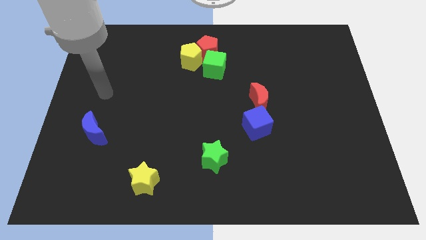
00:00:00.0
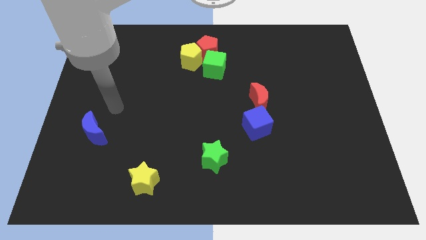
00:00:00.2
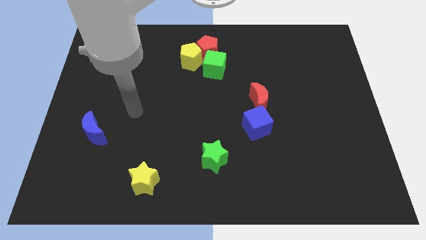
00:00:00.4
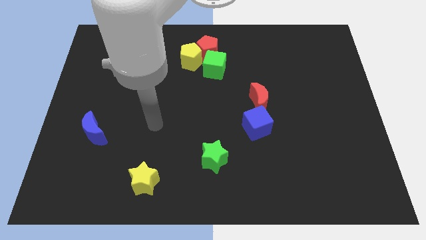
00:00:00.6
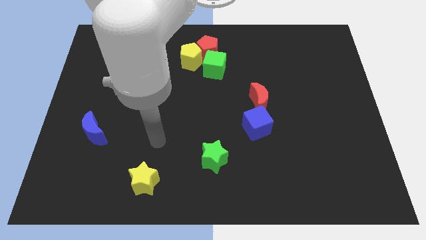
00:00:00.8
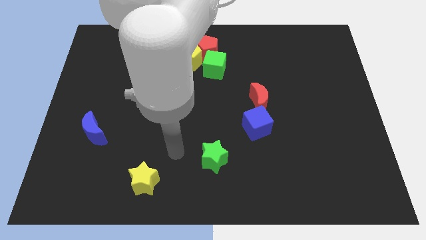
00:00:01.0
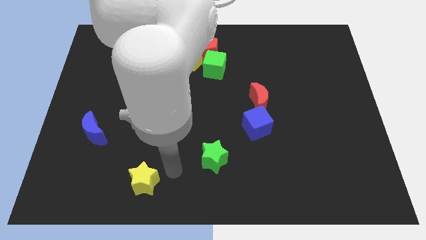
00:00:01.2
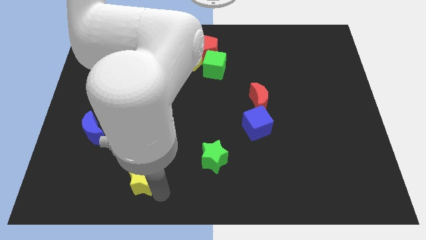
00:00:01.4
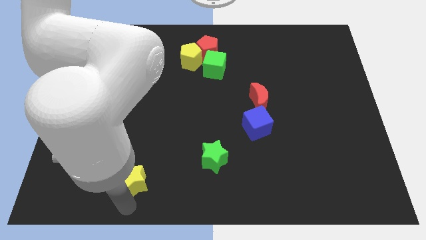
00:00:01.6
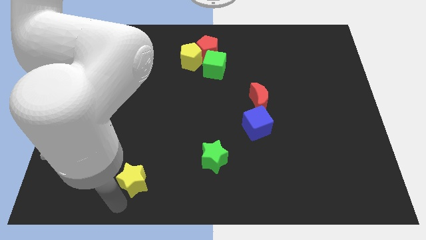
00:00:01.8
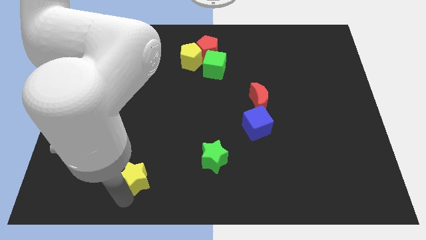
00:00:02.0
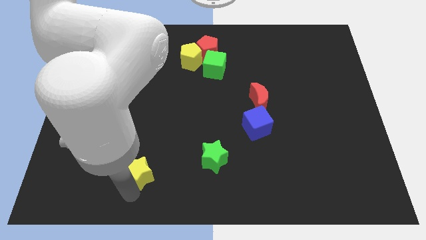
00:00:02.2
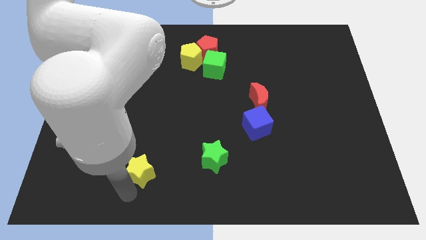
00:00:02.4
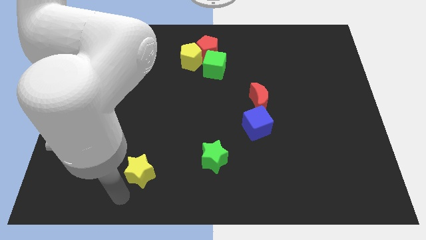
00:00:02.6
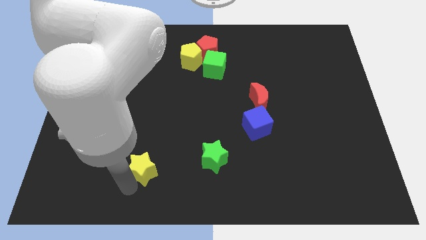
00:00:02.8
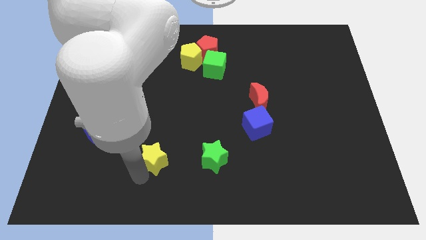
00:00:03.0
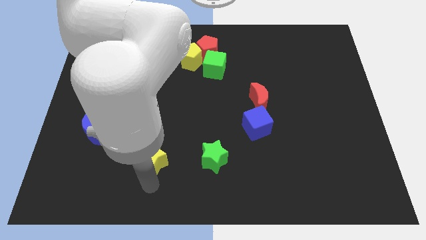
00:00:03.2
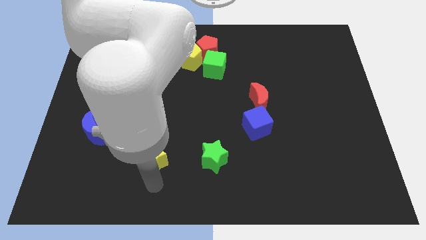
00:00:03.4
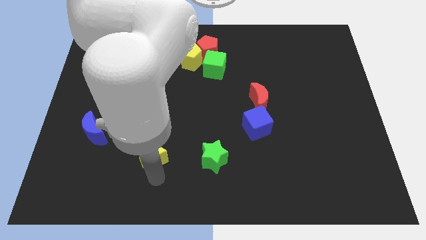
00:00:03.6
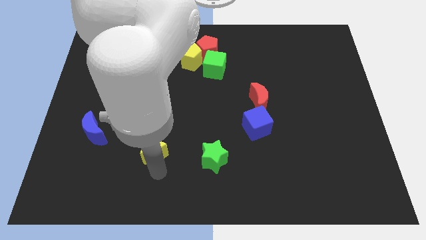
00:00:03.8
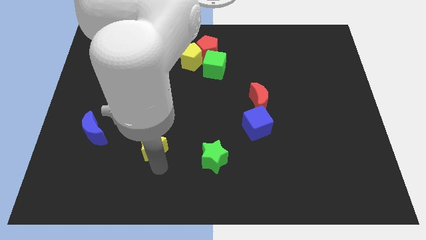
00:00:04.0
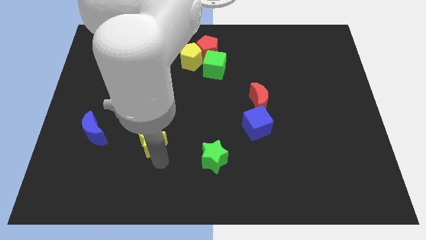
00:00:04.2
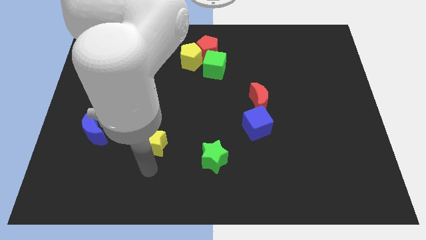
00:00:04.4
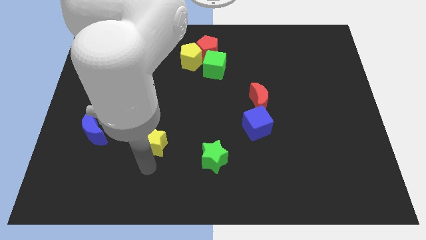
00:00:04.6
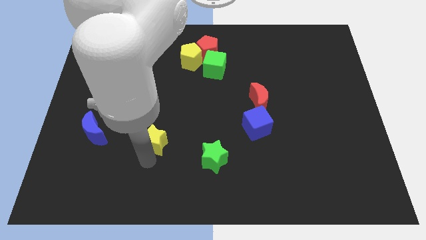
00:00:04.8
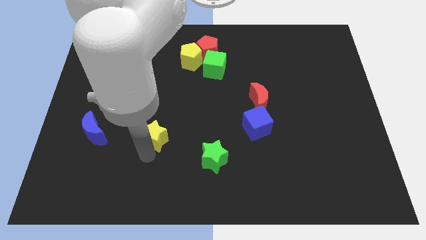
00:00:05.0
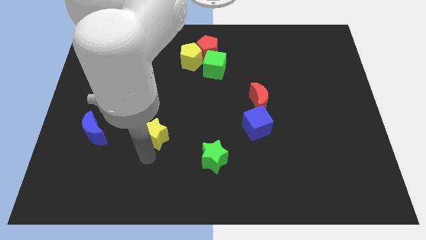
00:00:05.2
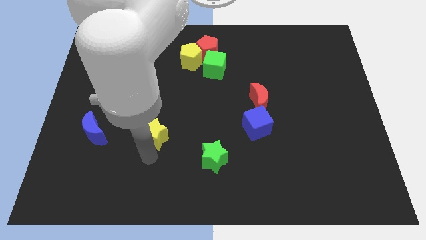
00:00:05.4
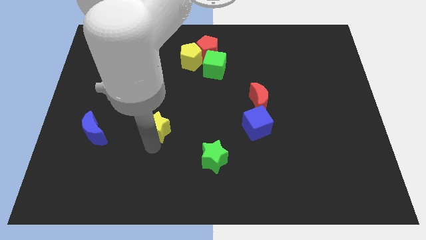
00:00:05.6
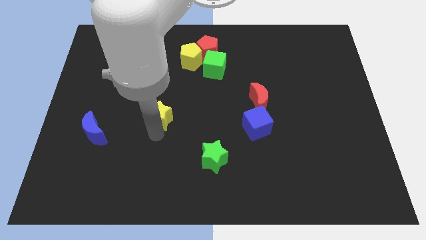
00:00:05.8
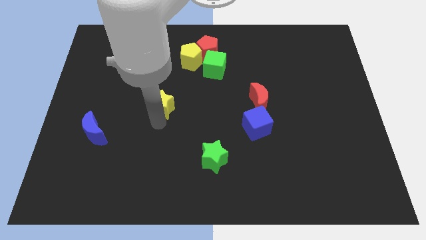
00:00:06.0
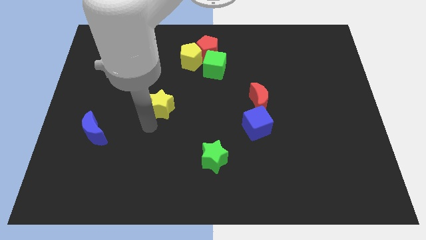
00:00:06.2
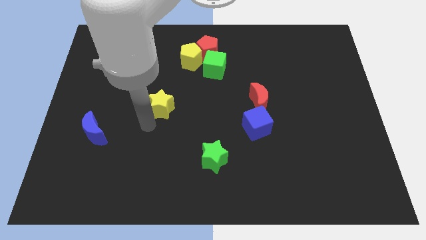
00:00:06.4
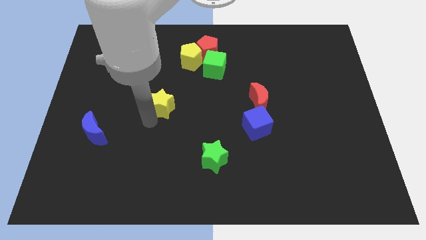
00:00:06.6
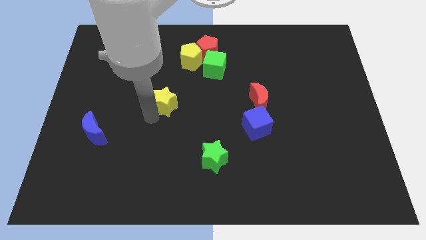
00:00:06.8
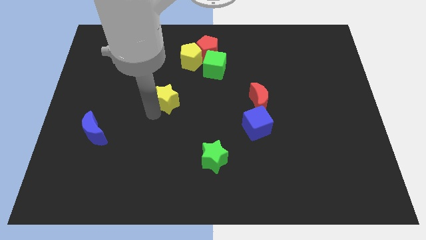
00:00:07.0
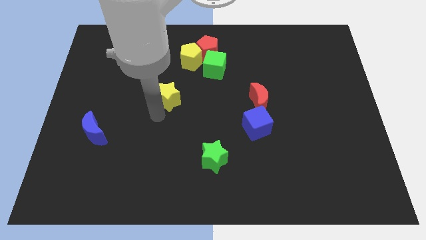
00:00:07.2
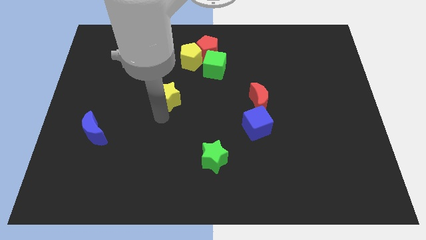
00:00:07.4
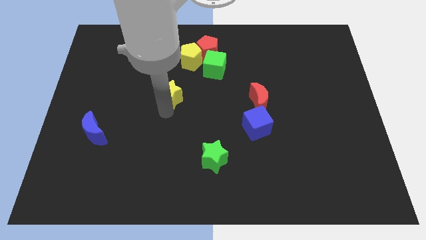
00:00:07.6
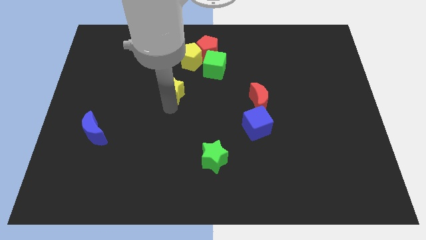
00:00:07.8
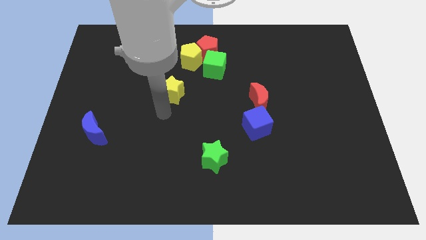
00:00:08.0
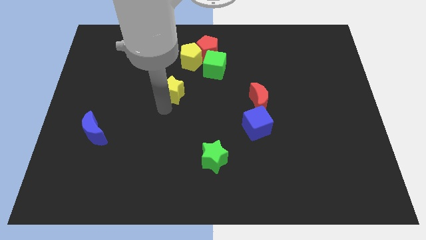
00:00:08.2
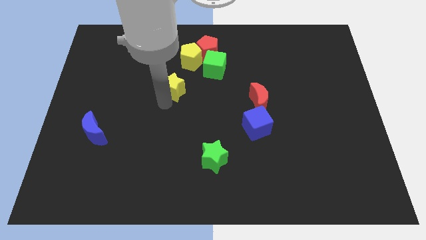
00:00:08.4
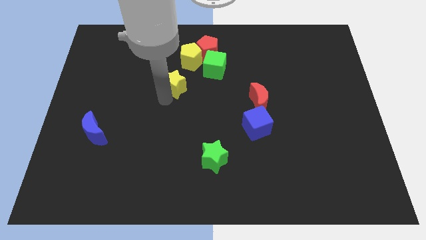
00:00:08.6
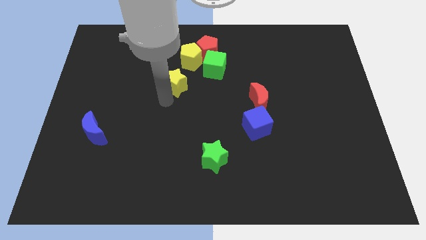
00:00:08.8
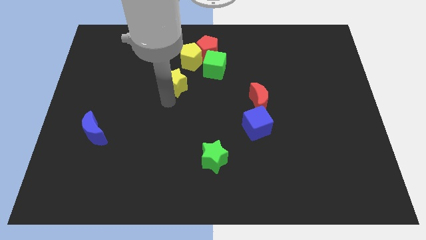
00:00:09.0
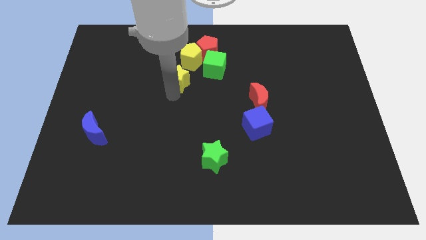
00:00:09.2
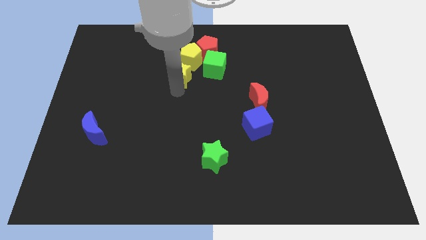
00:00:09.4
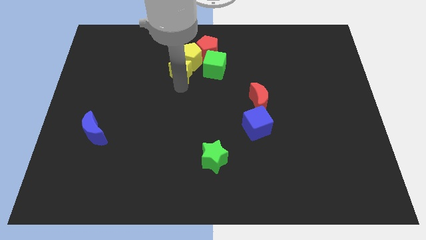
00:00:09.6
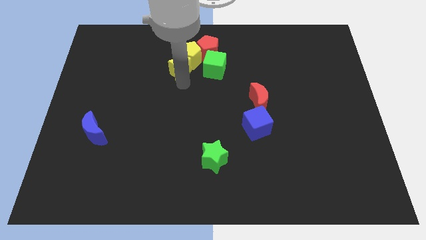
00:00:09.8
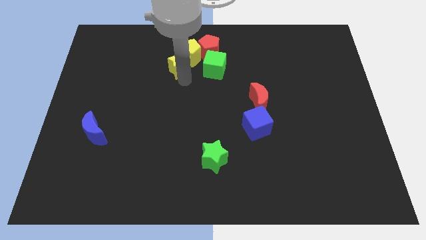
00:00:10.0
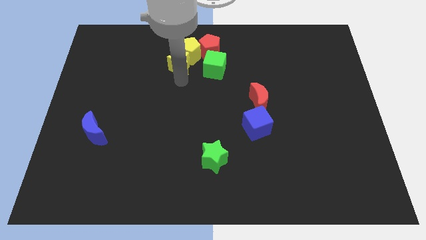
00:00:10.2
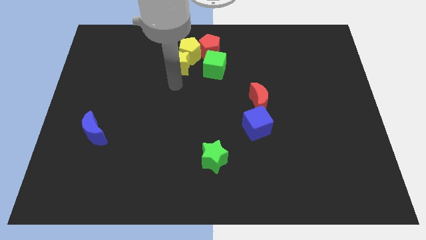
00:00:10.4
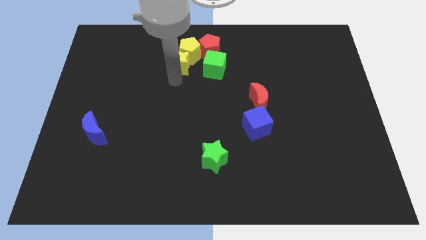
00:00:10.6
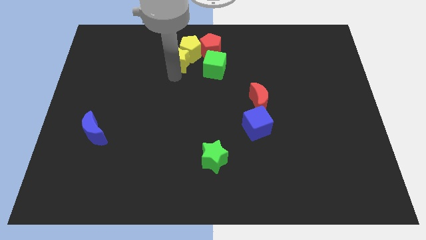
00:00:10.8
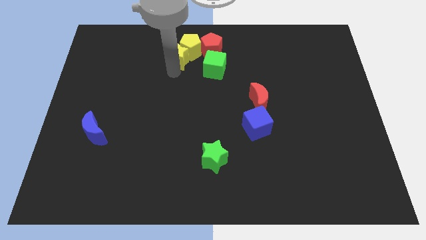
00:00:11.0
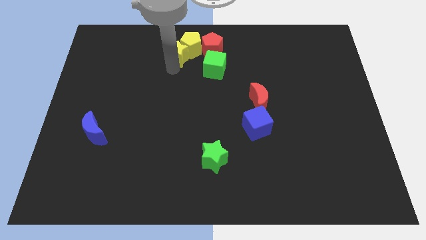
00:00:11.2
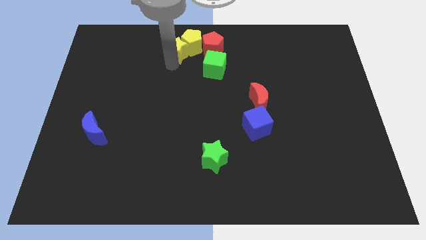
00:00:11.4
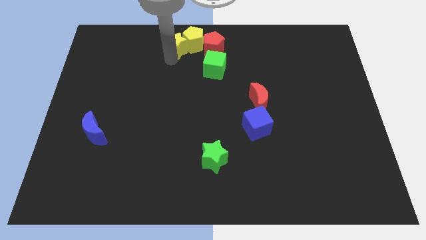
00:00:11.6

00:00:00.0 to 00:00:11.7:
move the yellow star to the towards your base
